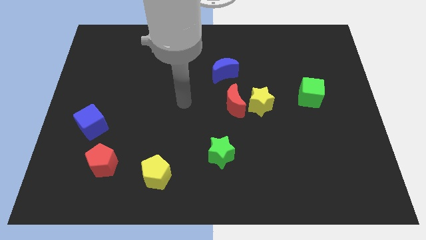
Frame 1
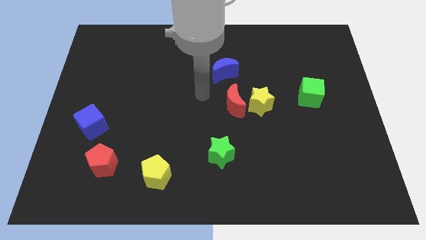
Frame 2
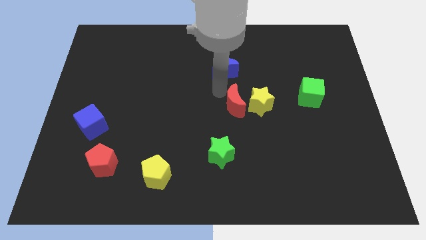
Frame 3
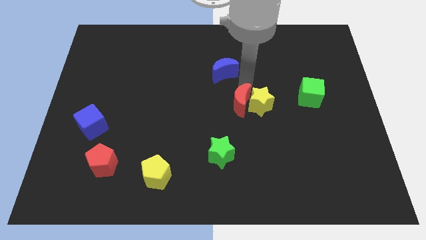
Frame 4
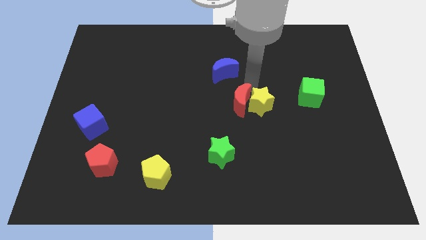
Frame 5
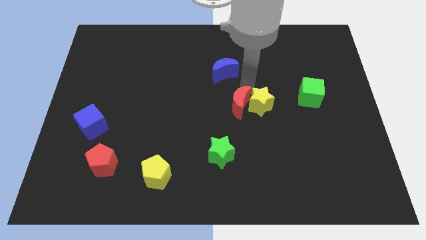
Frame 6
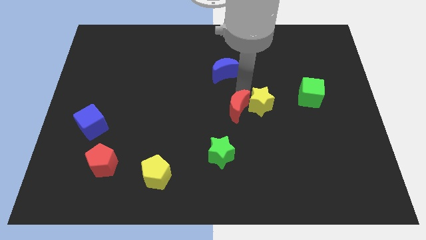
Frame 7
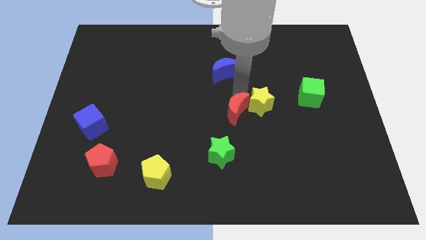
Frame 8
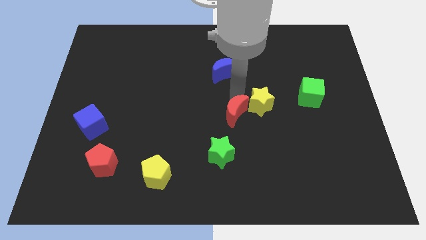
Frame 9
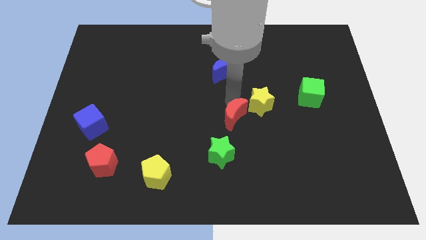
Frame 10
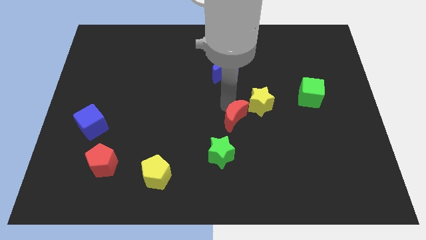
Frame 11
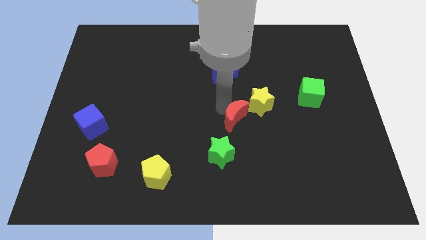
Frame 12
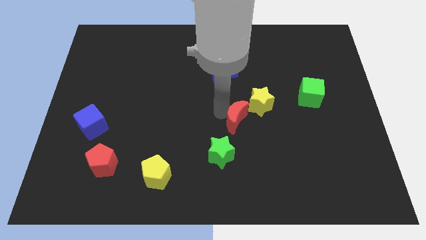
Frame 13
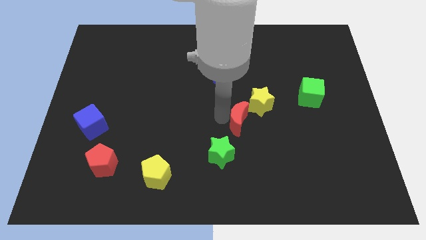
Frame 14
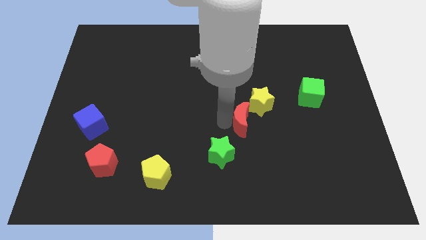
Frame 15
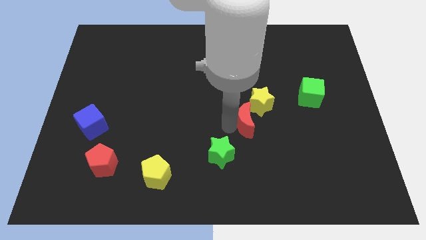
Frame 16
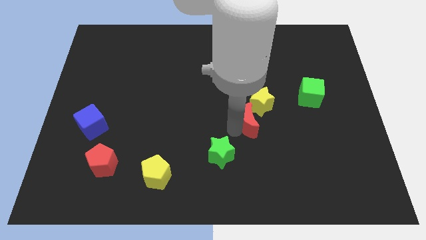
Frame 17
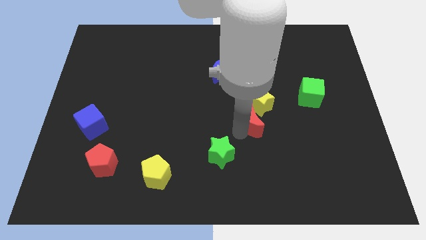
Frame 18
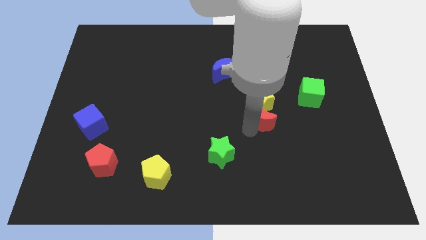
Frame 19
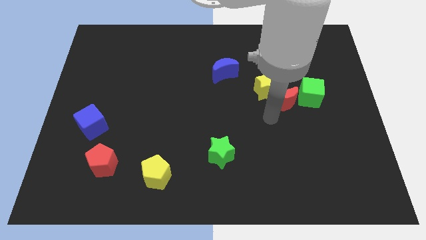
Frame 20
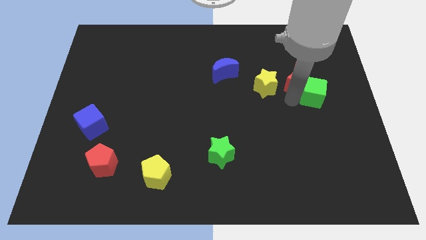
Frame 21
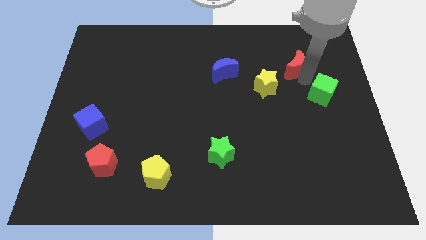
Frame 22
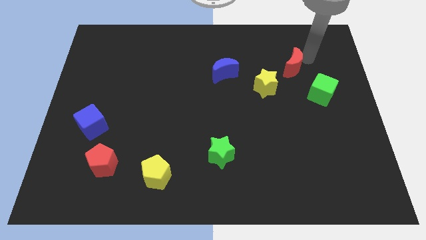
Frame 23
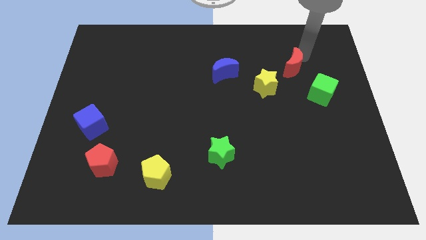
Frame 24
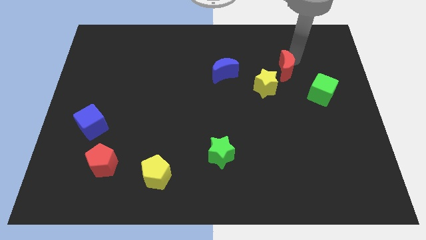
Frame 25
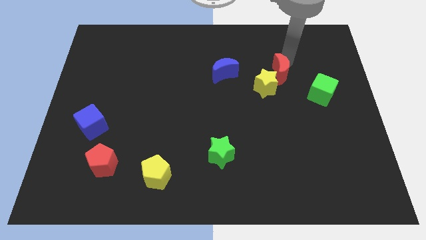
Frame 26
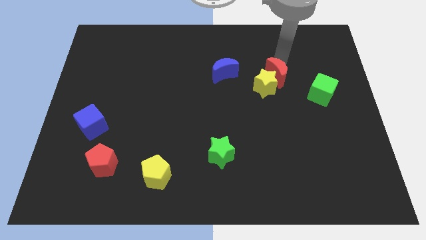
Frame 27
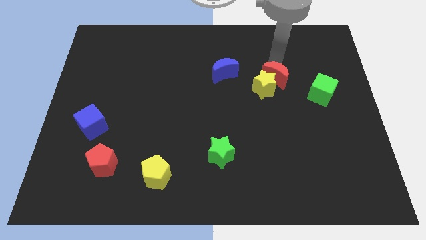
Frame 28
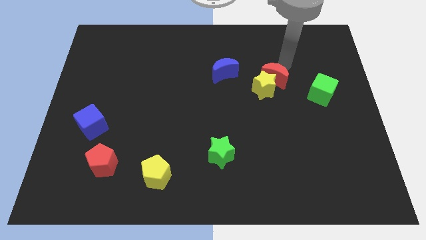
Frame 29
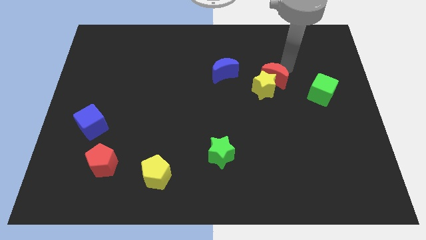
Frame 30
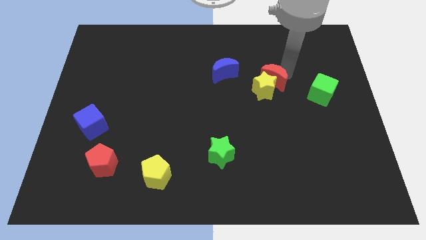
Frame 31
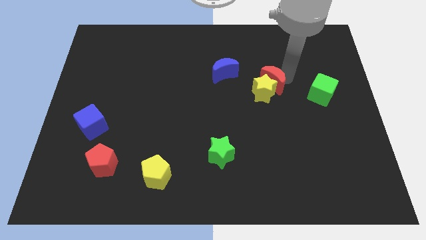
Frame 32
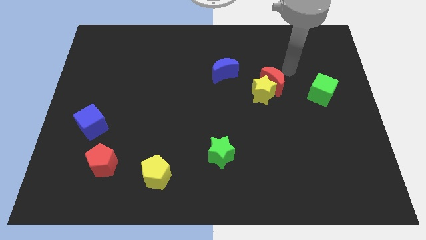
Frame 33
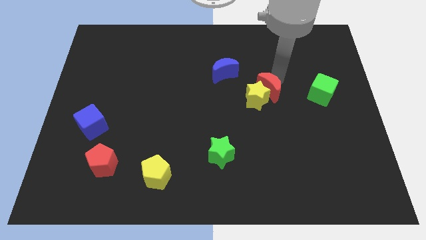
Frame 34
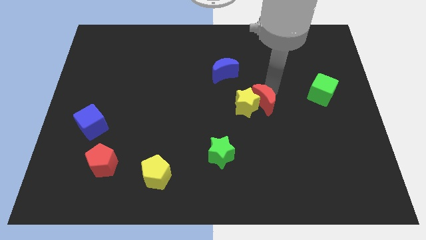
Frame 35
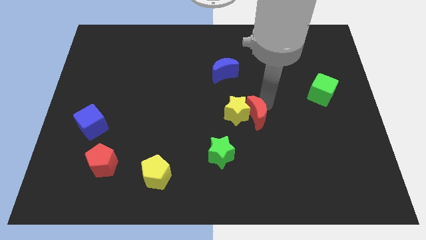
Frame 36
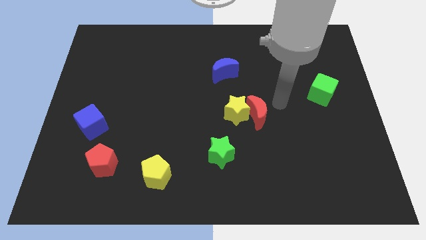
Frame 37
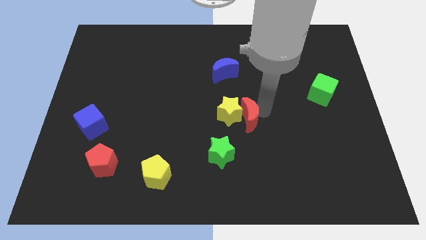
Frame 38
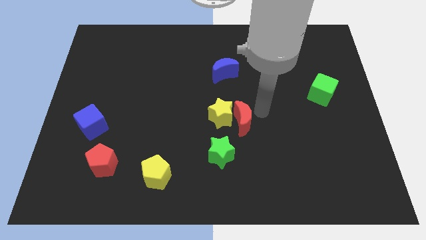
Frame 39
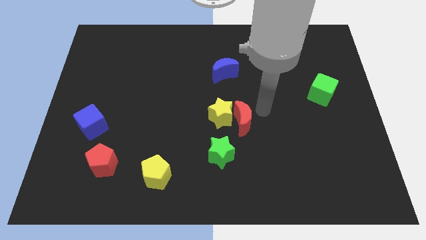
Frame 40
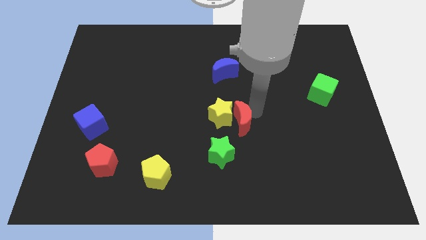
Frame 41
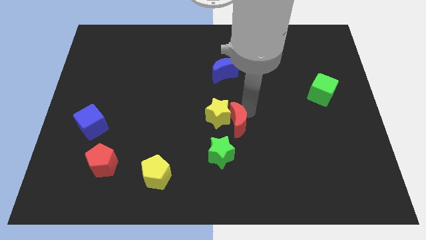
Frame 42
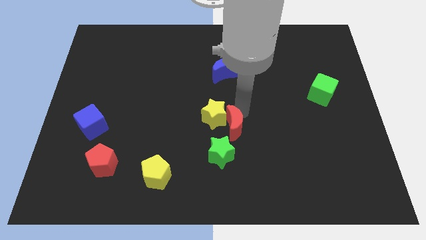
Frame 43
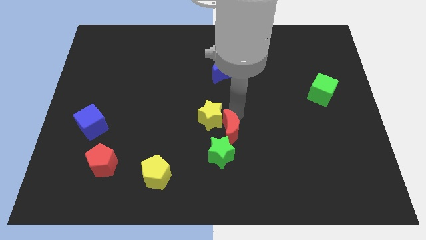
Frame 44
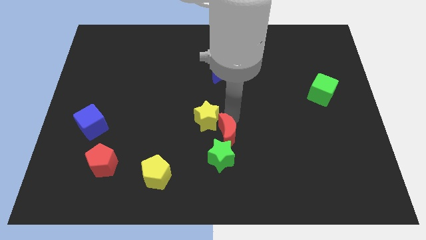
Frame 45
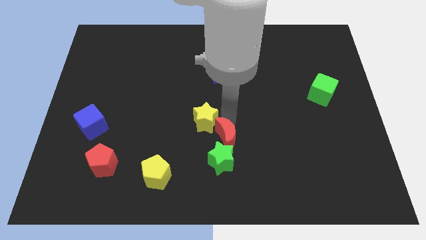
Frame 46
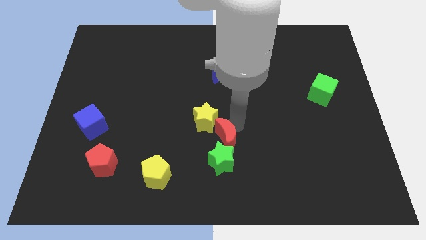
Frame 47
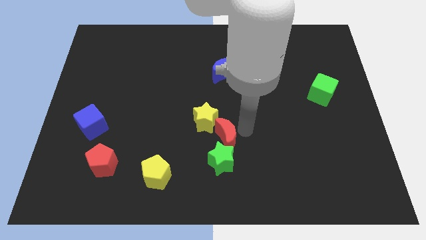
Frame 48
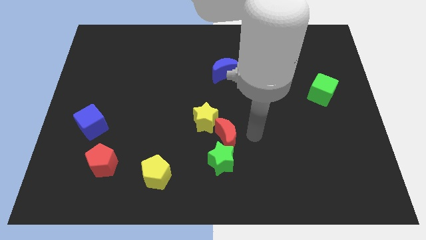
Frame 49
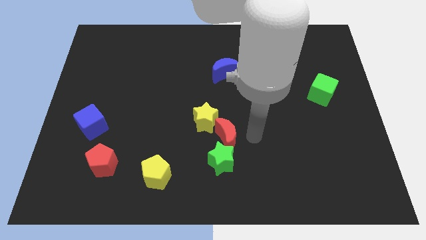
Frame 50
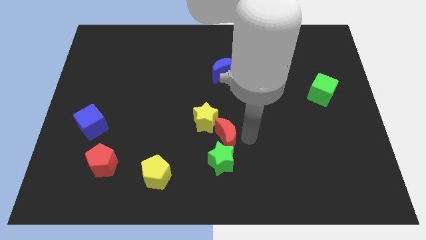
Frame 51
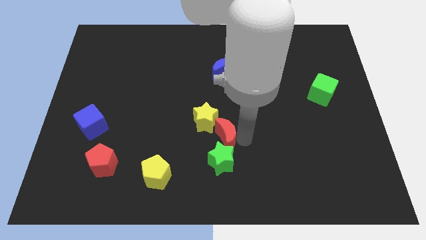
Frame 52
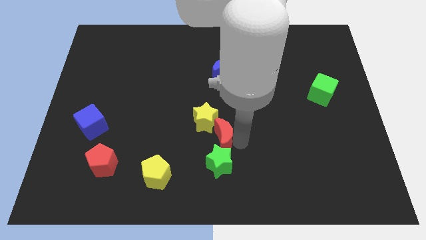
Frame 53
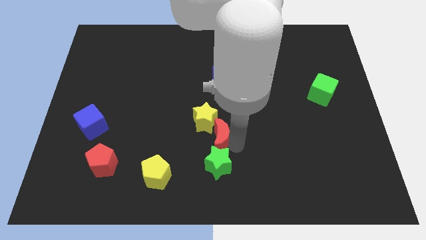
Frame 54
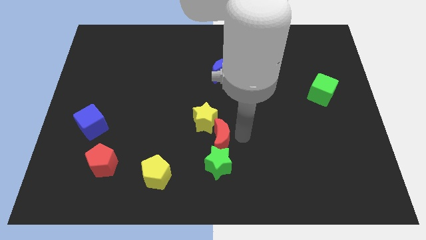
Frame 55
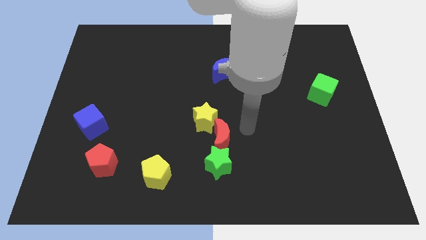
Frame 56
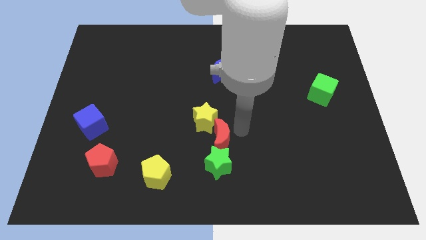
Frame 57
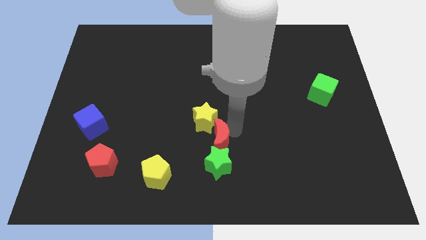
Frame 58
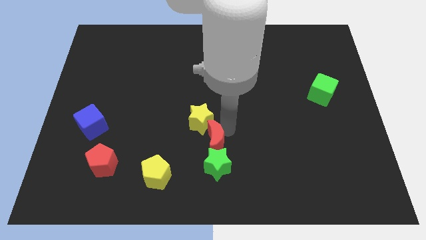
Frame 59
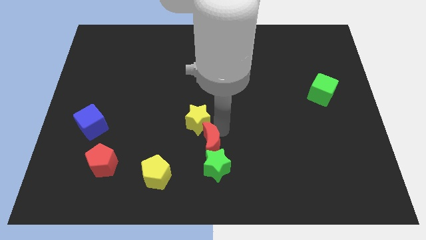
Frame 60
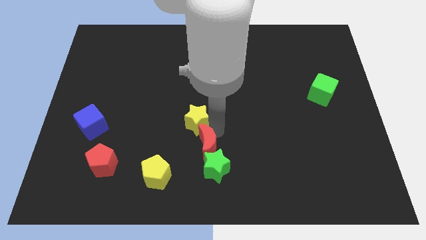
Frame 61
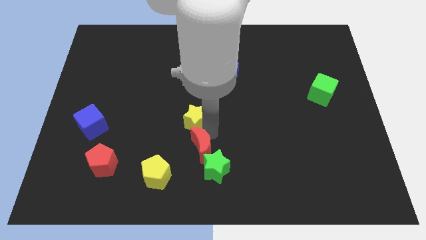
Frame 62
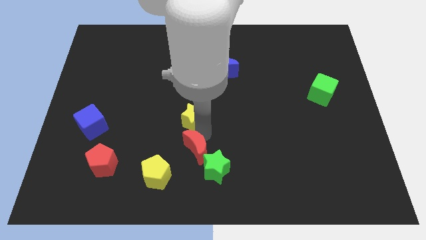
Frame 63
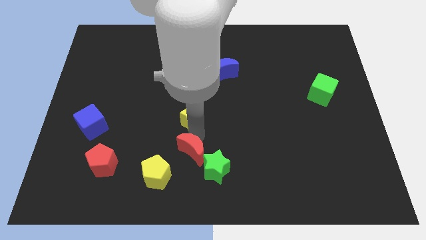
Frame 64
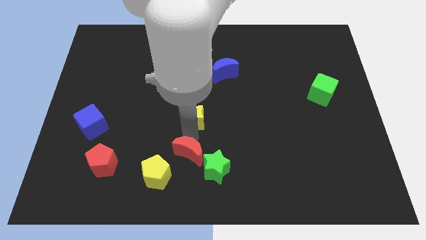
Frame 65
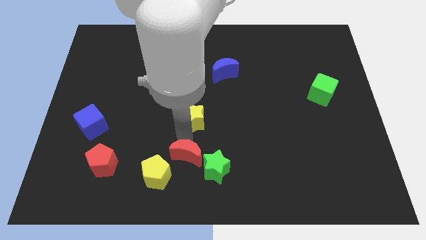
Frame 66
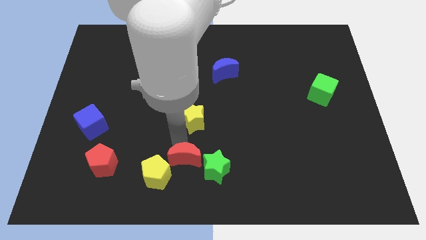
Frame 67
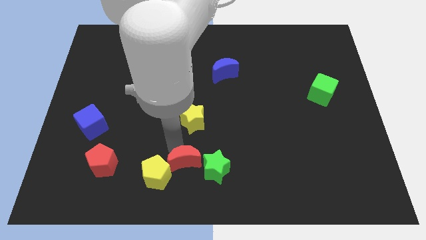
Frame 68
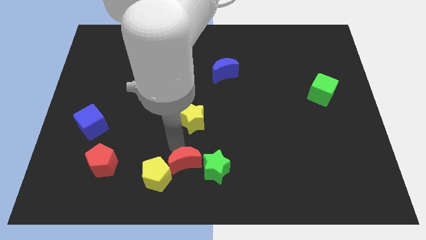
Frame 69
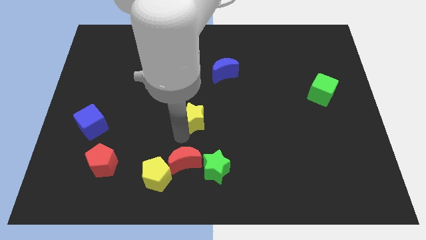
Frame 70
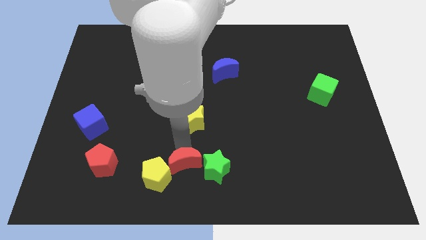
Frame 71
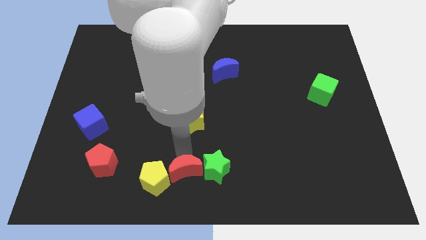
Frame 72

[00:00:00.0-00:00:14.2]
put the red moon to the bottom left of the green star

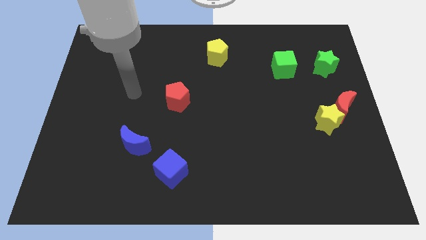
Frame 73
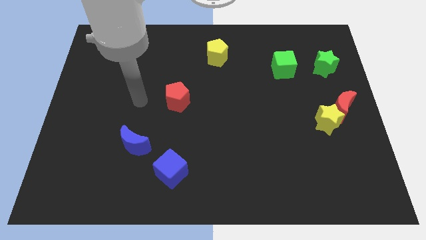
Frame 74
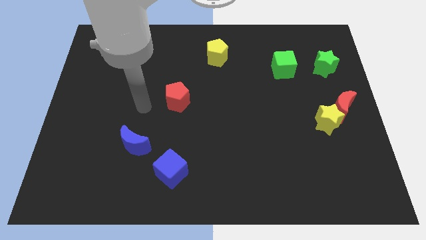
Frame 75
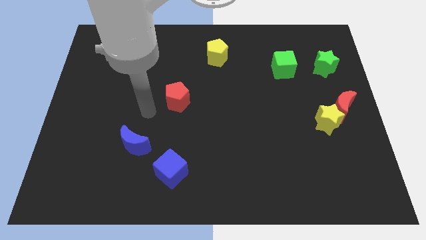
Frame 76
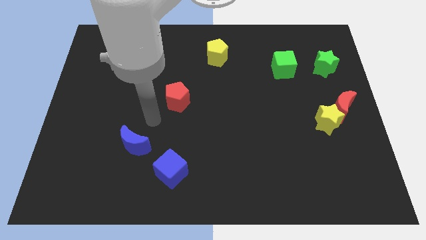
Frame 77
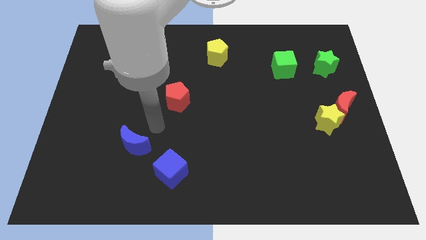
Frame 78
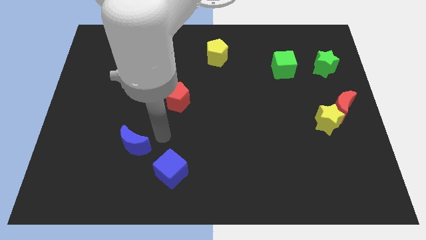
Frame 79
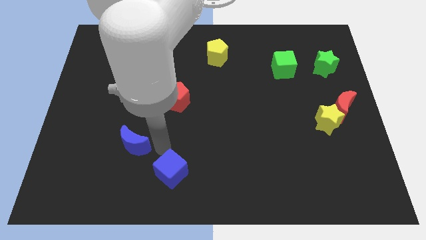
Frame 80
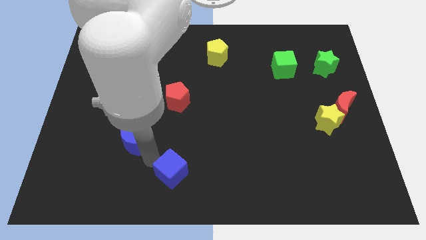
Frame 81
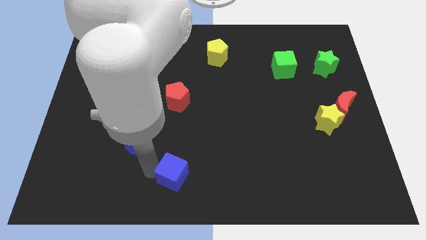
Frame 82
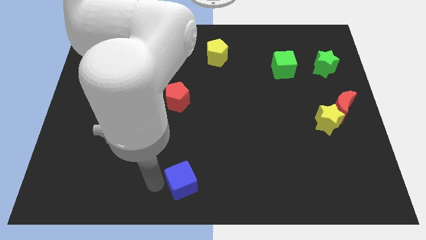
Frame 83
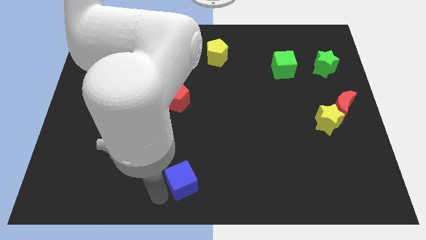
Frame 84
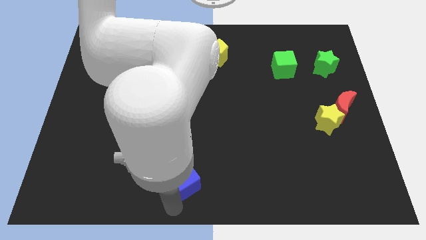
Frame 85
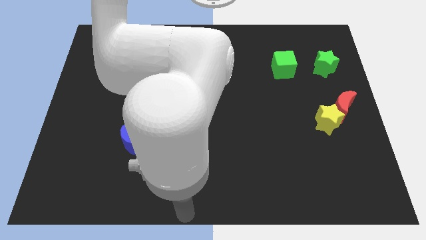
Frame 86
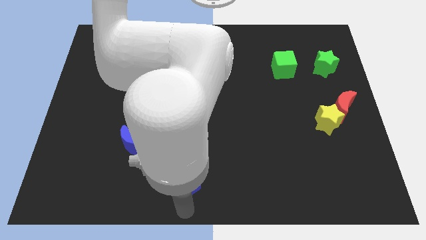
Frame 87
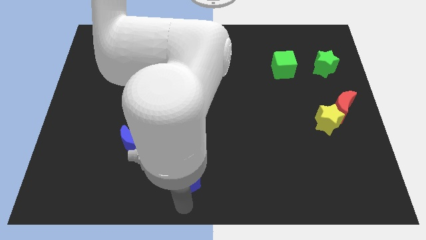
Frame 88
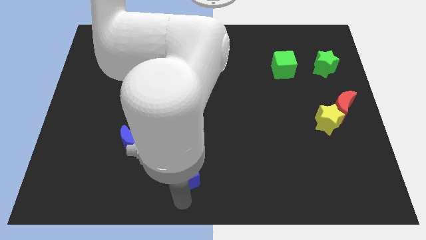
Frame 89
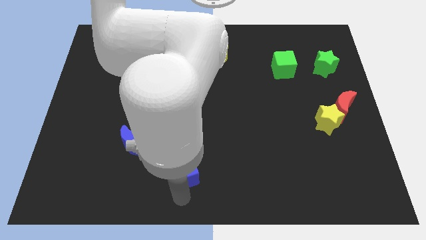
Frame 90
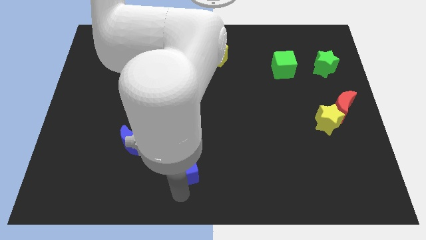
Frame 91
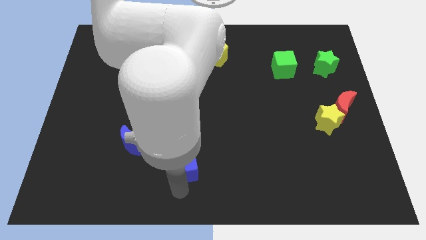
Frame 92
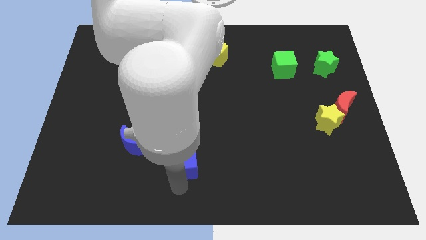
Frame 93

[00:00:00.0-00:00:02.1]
slide the blue cube just right of the blue moon
